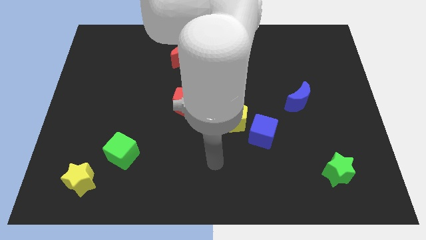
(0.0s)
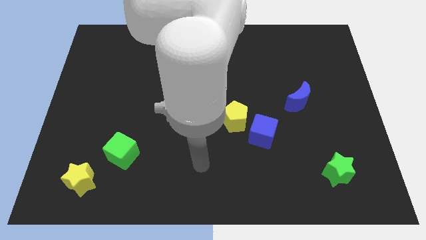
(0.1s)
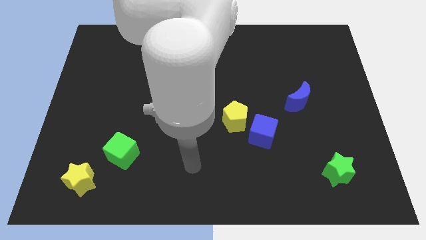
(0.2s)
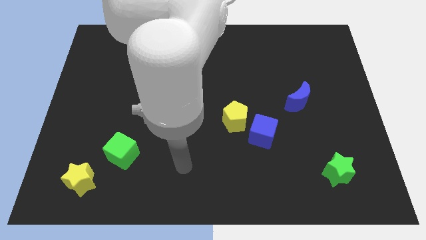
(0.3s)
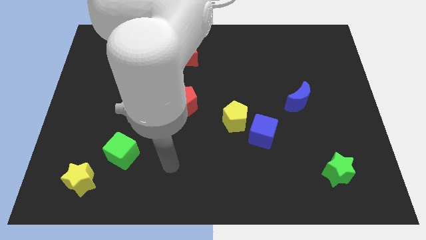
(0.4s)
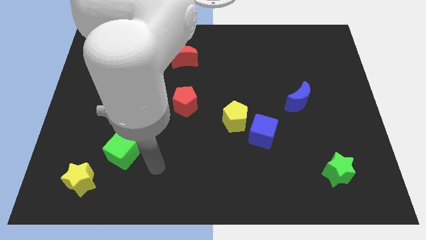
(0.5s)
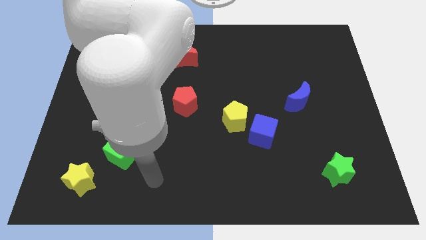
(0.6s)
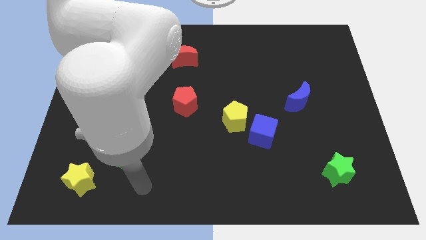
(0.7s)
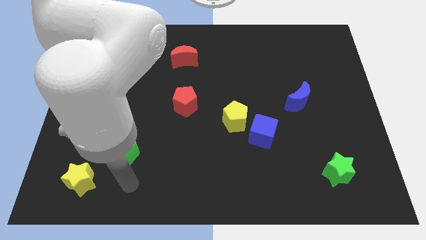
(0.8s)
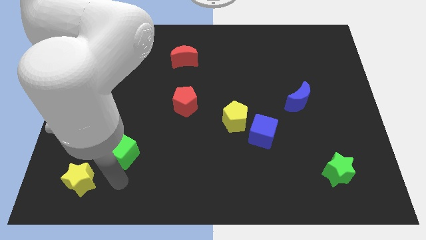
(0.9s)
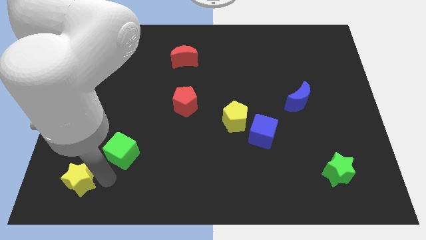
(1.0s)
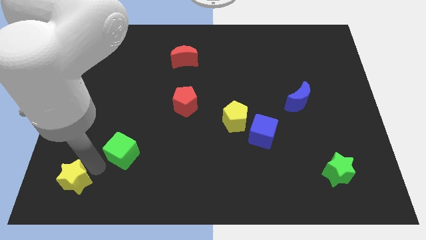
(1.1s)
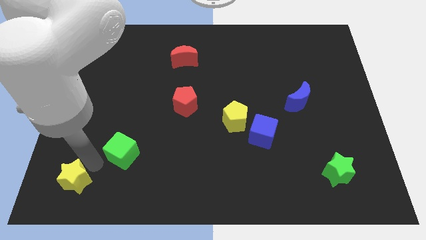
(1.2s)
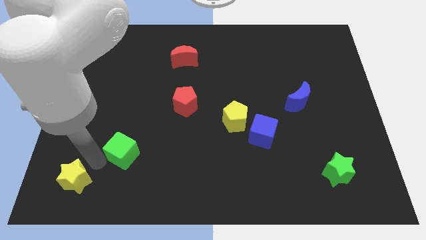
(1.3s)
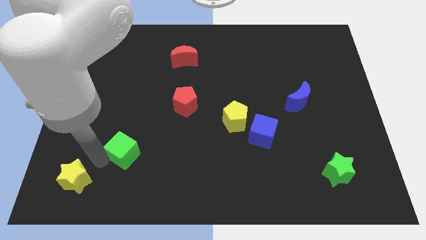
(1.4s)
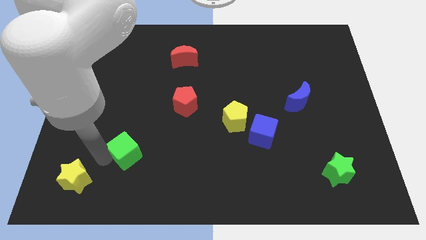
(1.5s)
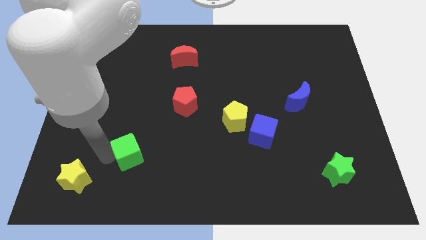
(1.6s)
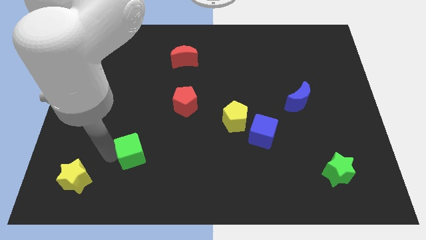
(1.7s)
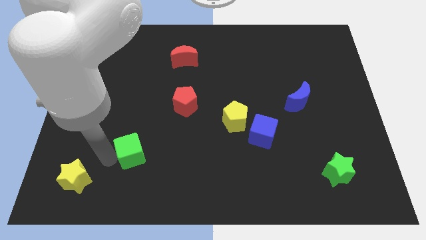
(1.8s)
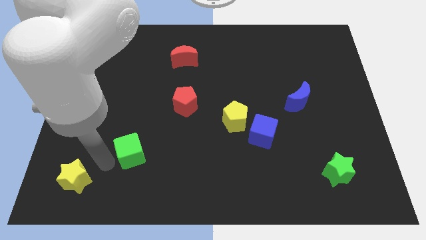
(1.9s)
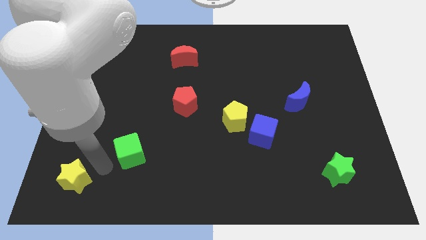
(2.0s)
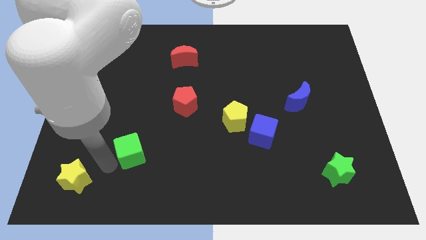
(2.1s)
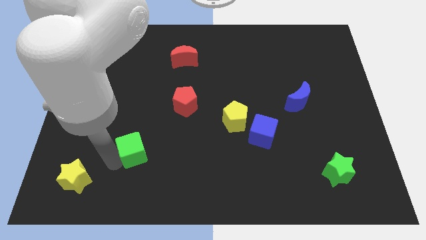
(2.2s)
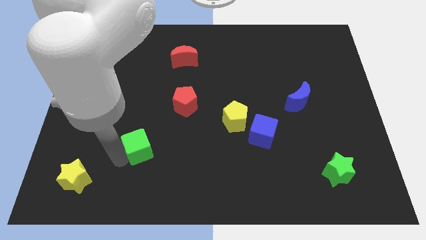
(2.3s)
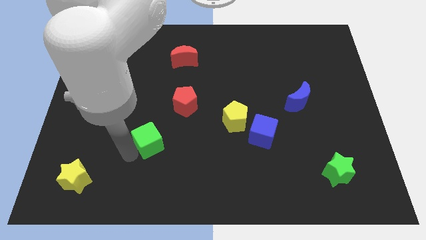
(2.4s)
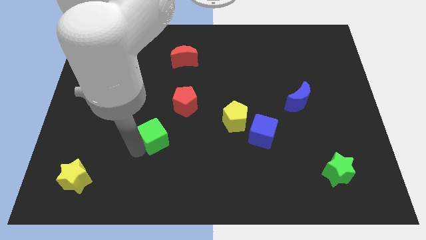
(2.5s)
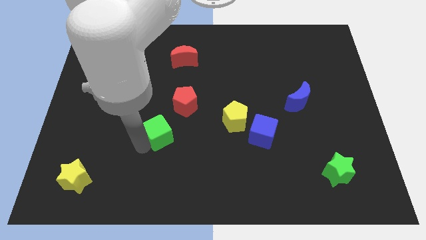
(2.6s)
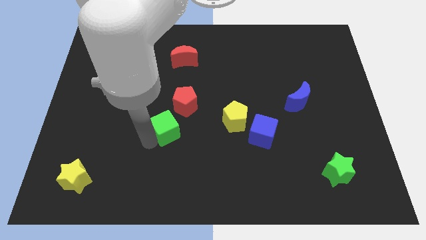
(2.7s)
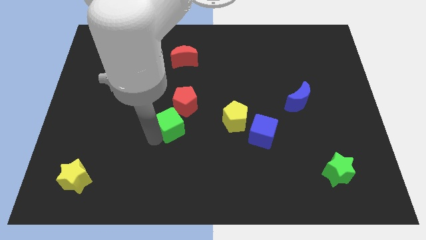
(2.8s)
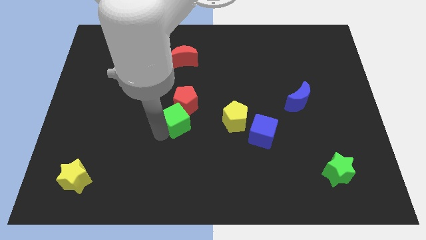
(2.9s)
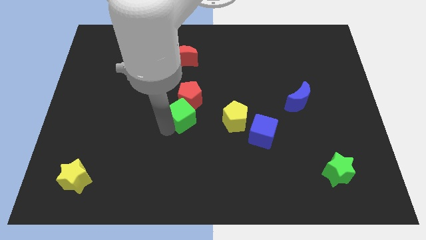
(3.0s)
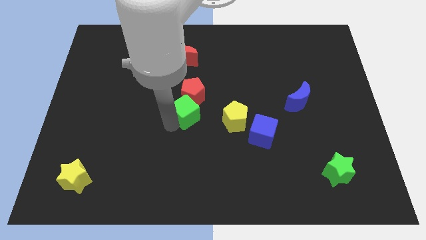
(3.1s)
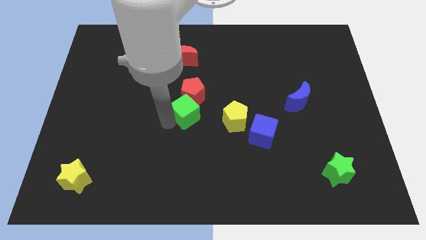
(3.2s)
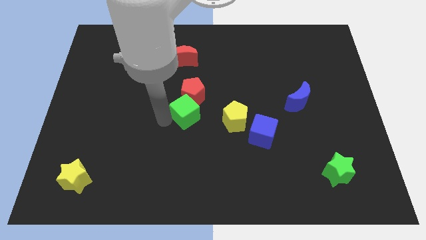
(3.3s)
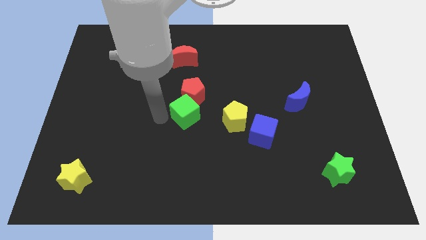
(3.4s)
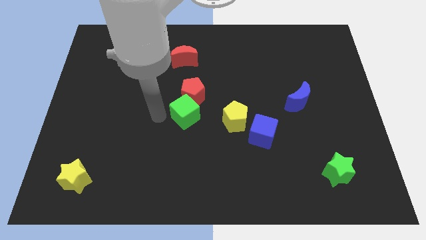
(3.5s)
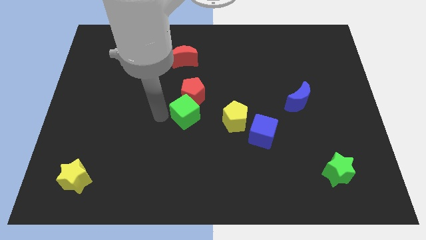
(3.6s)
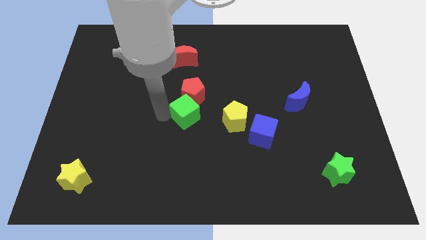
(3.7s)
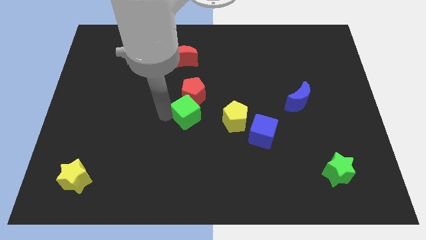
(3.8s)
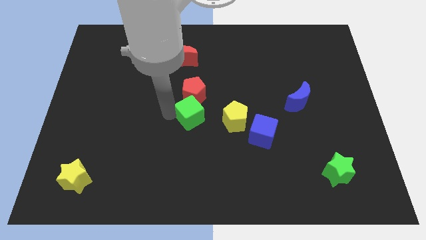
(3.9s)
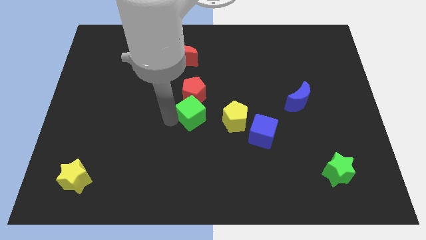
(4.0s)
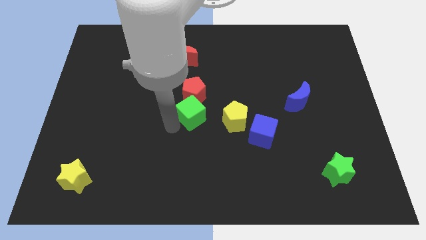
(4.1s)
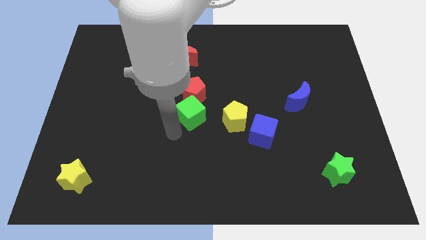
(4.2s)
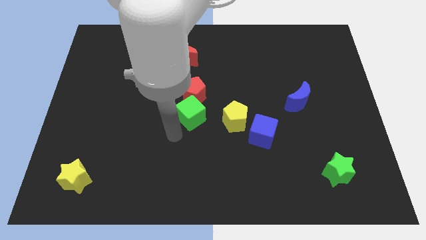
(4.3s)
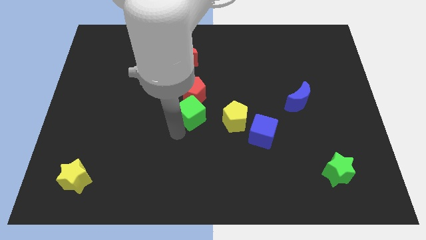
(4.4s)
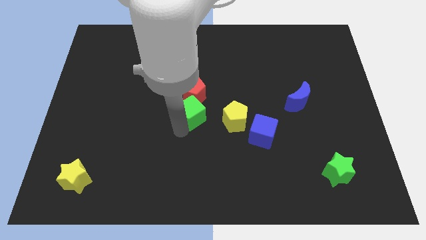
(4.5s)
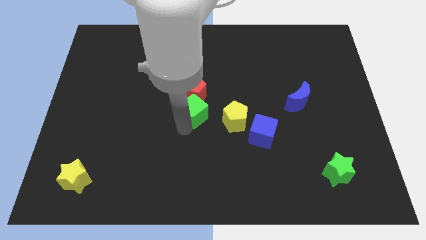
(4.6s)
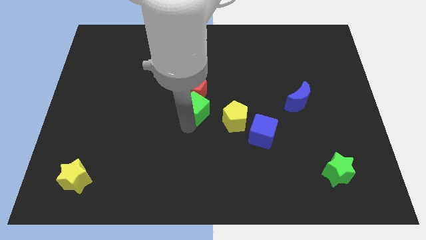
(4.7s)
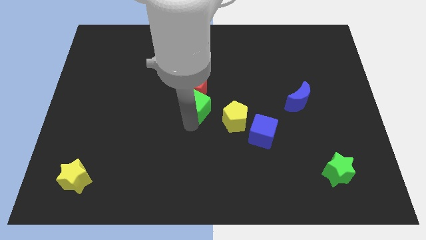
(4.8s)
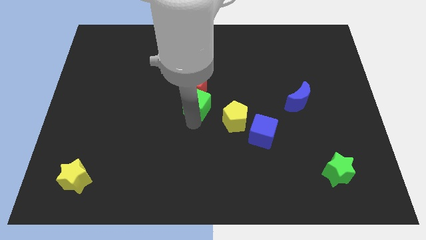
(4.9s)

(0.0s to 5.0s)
push the green cube up and then to the right

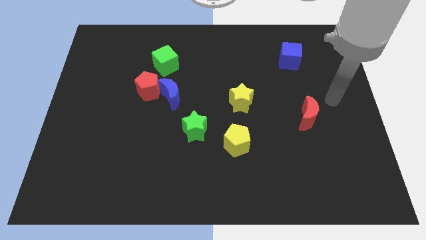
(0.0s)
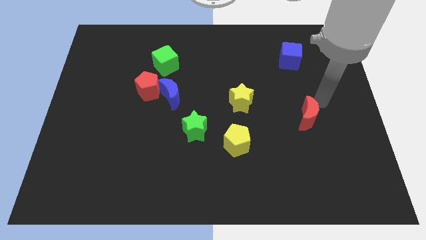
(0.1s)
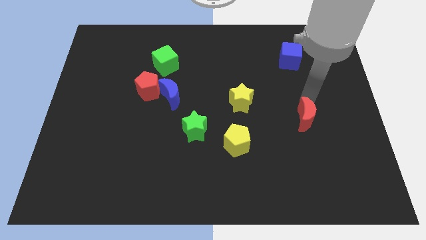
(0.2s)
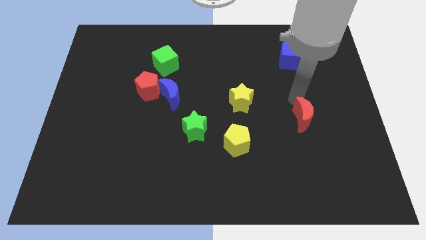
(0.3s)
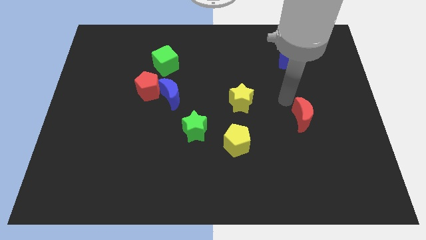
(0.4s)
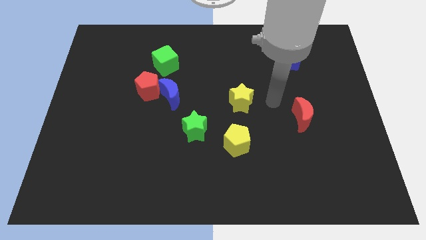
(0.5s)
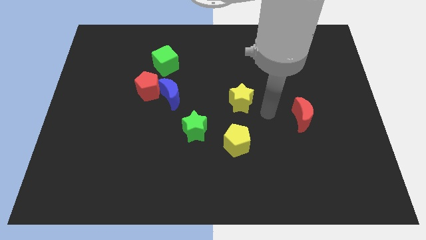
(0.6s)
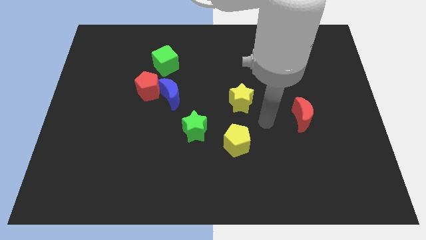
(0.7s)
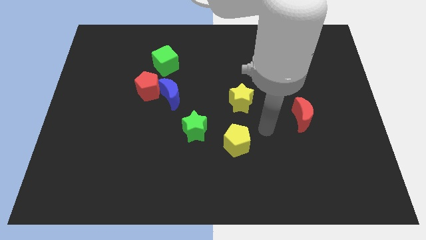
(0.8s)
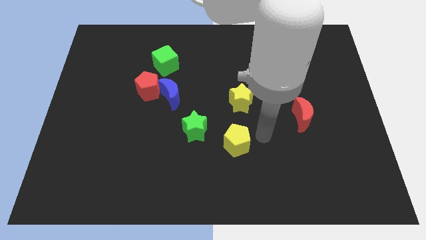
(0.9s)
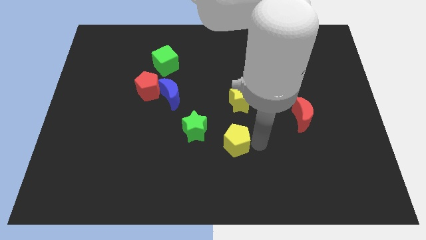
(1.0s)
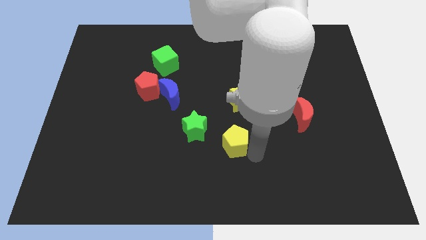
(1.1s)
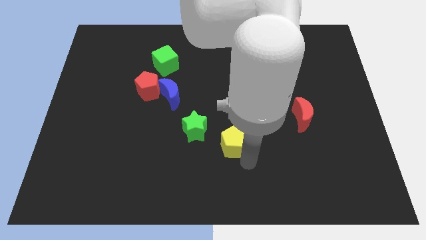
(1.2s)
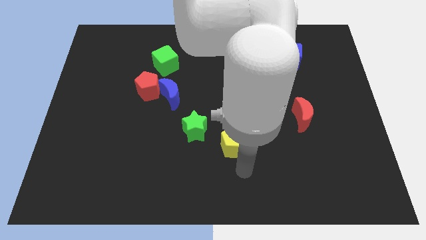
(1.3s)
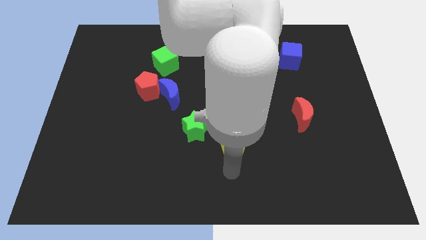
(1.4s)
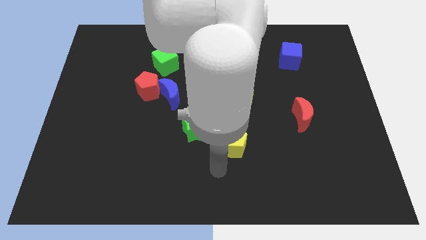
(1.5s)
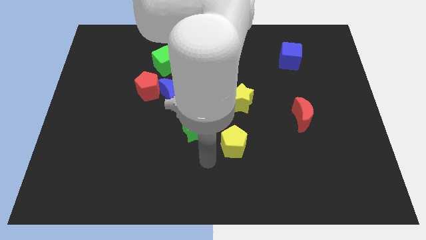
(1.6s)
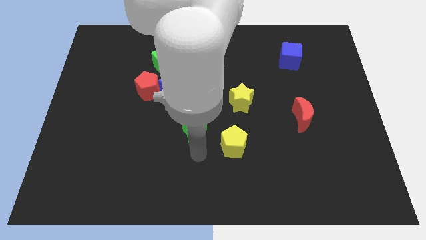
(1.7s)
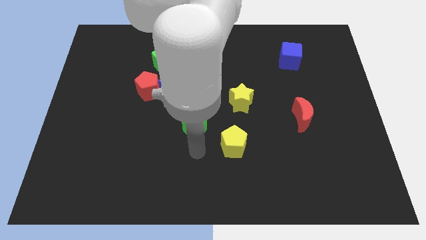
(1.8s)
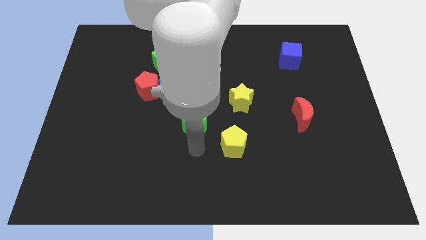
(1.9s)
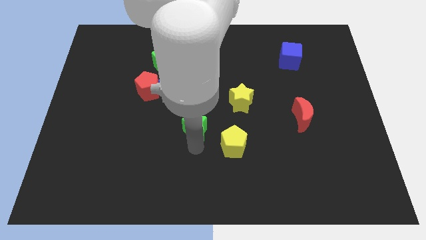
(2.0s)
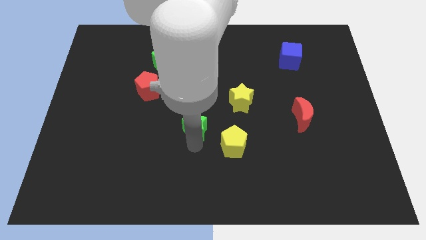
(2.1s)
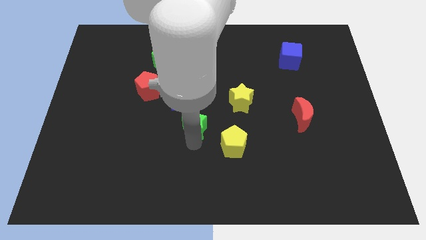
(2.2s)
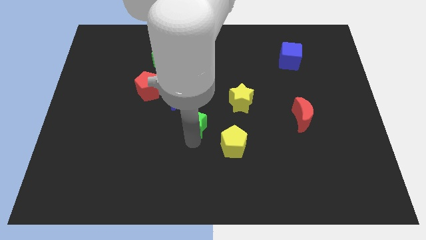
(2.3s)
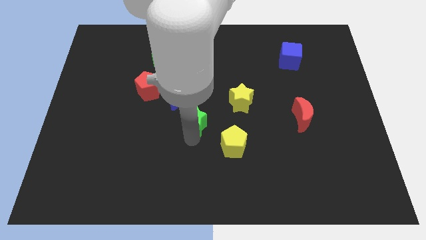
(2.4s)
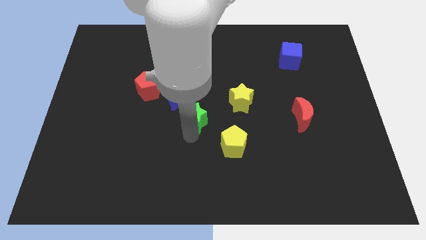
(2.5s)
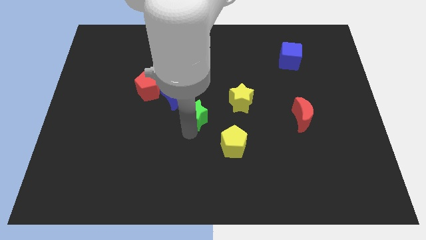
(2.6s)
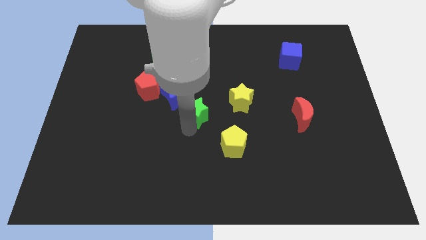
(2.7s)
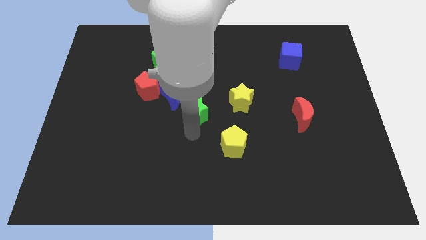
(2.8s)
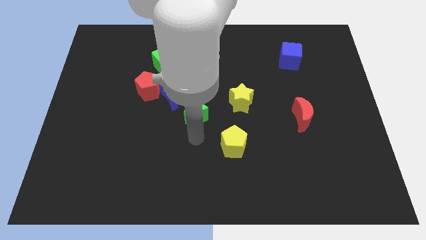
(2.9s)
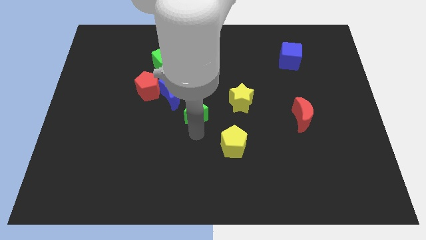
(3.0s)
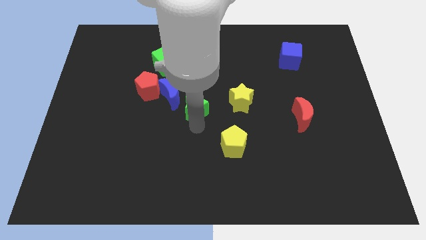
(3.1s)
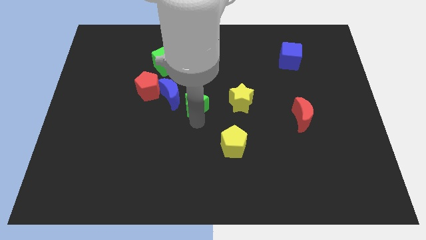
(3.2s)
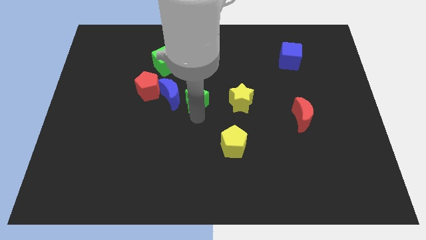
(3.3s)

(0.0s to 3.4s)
slide the green star a little up
